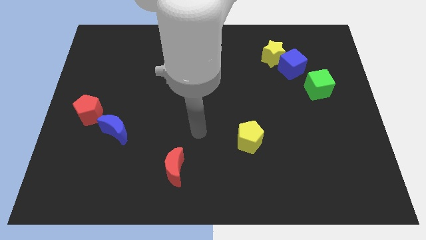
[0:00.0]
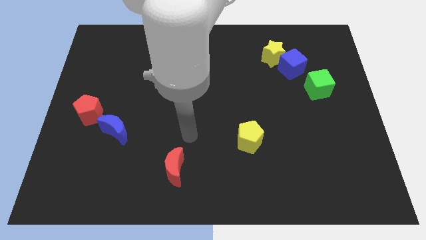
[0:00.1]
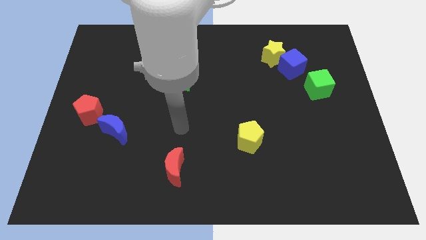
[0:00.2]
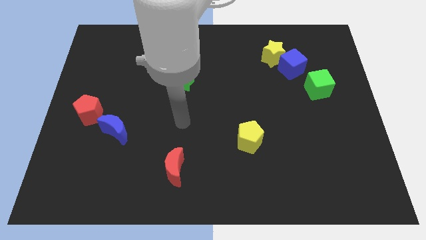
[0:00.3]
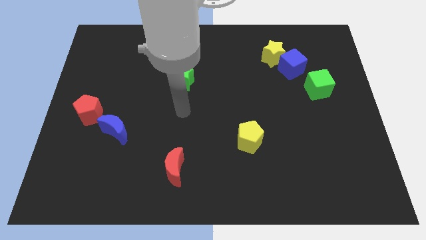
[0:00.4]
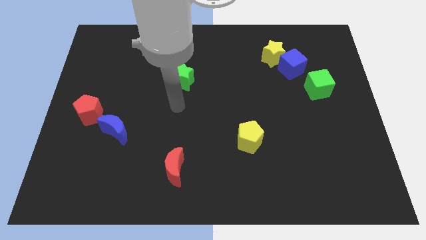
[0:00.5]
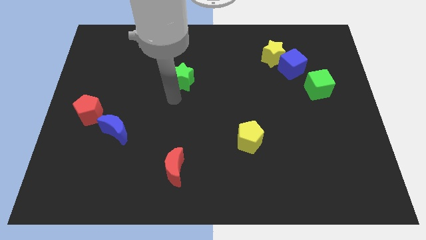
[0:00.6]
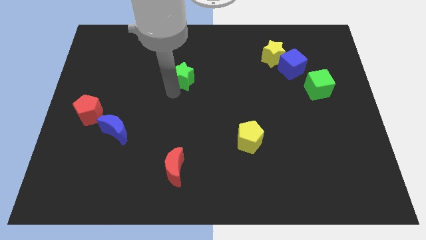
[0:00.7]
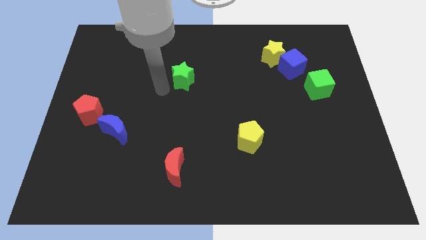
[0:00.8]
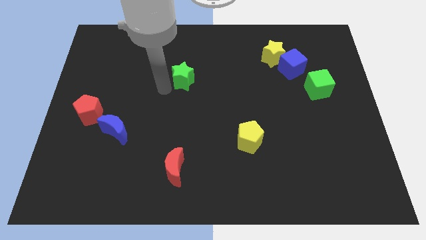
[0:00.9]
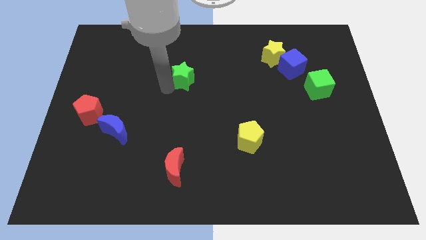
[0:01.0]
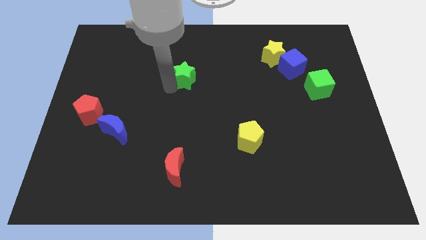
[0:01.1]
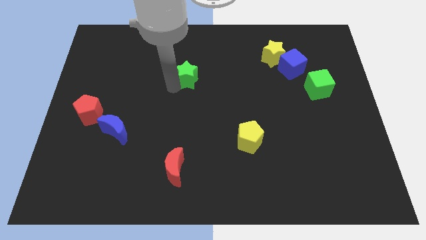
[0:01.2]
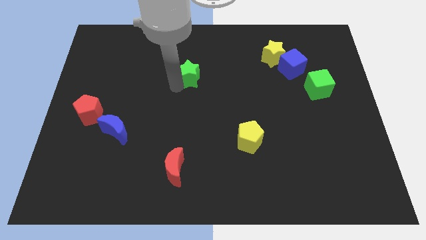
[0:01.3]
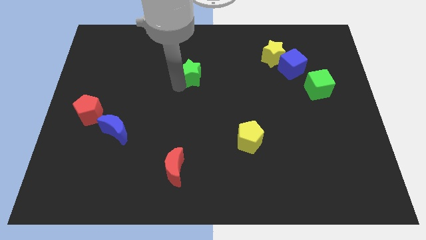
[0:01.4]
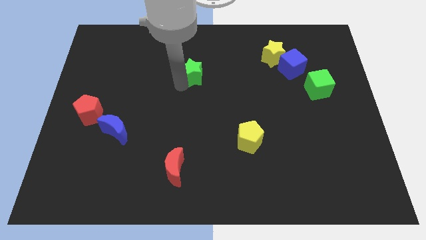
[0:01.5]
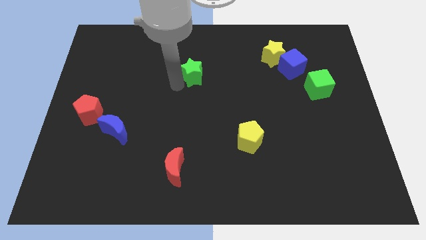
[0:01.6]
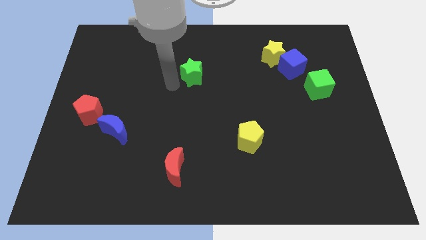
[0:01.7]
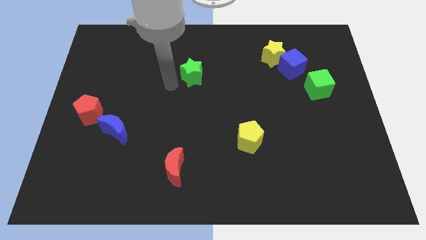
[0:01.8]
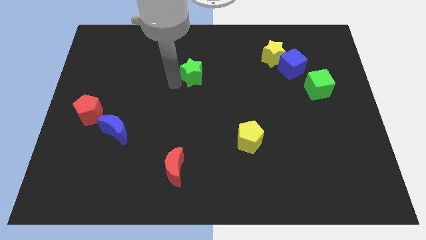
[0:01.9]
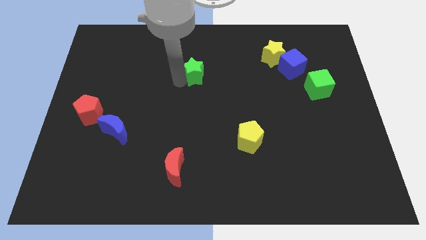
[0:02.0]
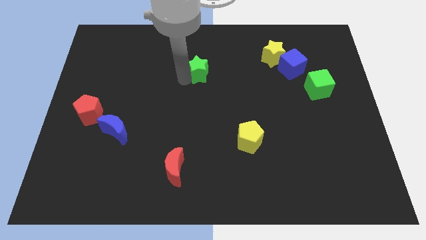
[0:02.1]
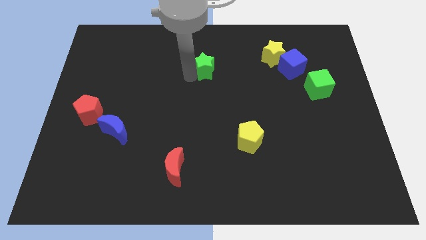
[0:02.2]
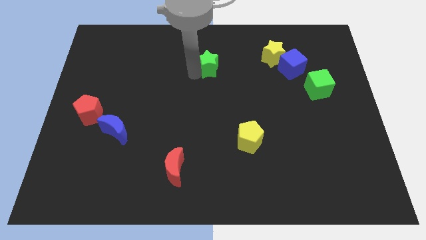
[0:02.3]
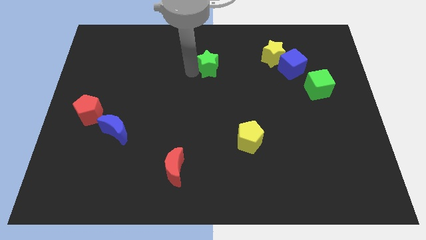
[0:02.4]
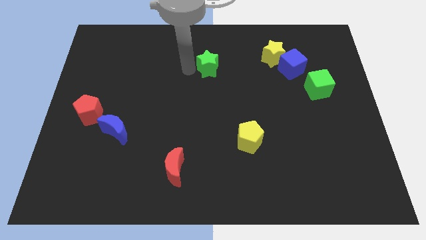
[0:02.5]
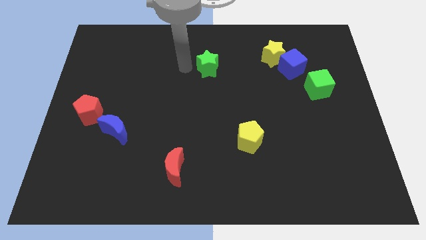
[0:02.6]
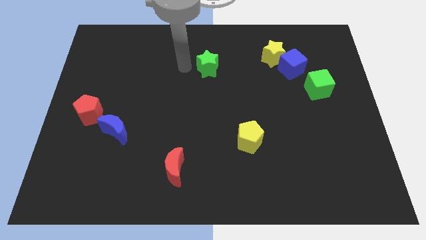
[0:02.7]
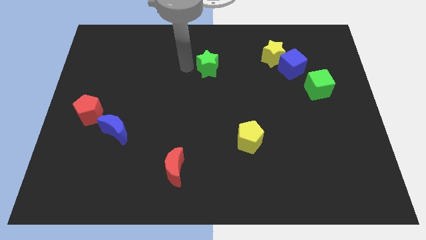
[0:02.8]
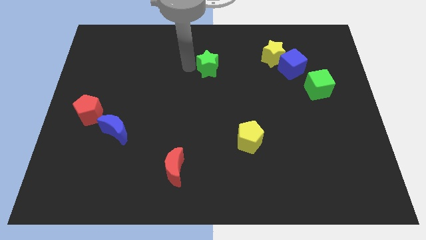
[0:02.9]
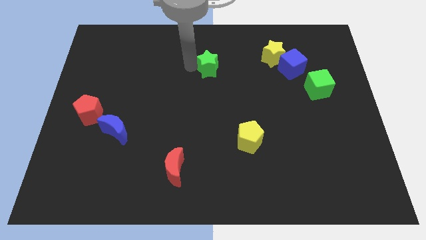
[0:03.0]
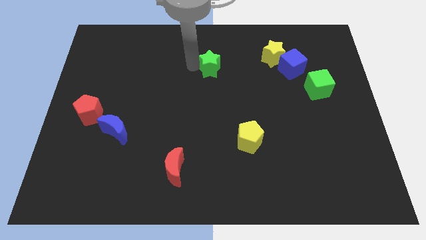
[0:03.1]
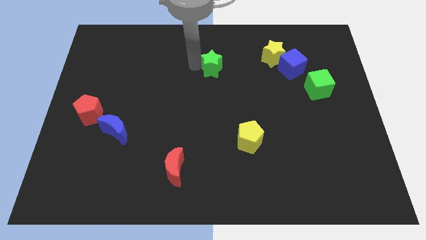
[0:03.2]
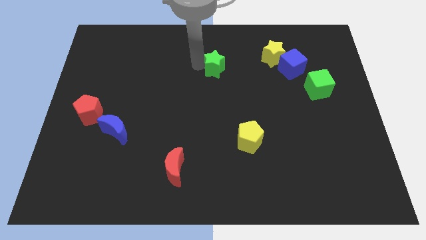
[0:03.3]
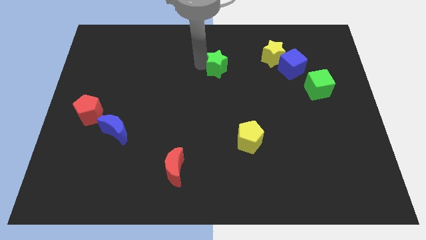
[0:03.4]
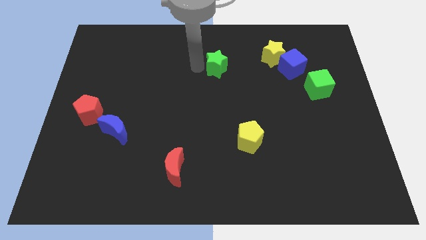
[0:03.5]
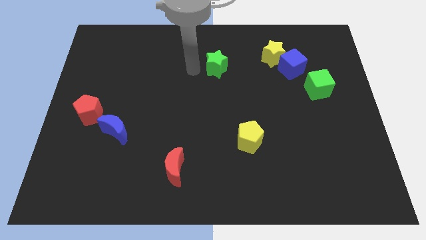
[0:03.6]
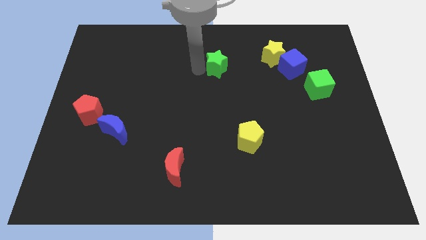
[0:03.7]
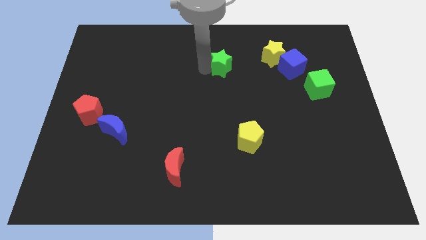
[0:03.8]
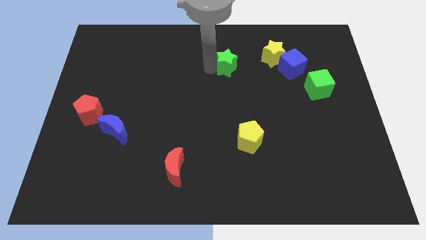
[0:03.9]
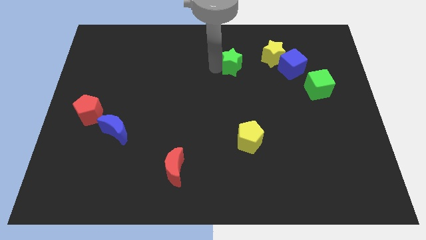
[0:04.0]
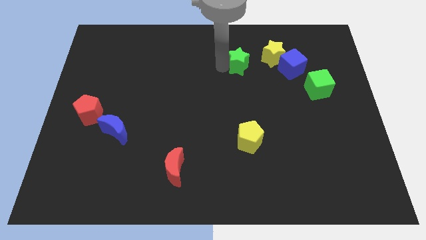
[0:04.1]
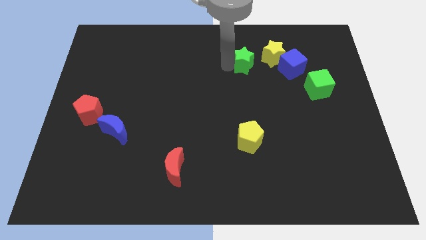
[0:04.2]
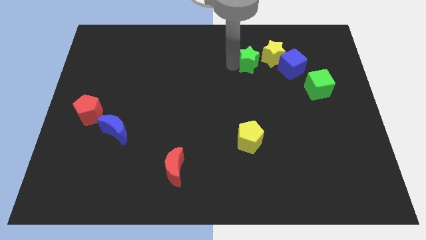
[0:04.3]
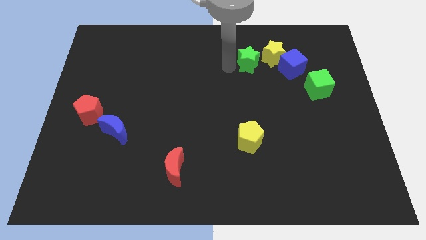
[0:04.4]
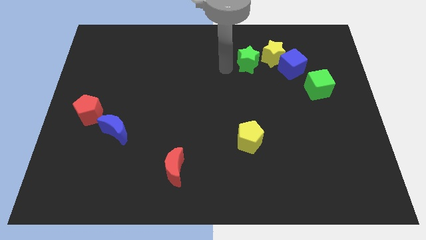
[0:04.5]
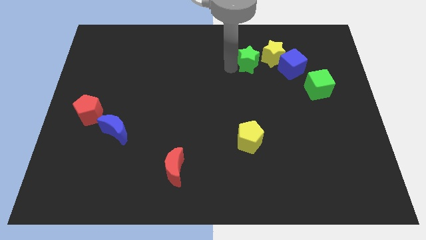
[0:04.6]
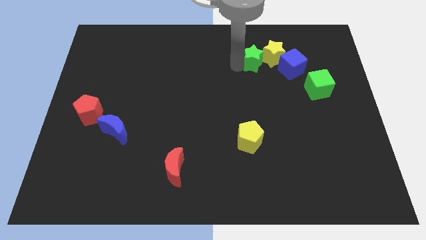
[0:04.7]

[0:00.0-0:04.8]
push the green star close to the yellow star

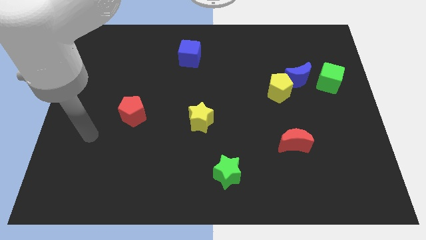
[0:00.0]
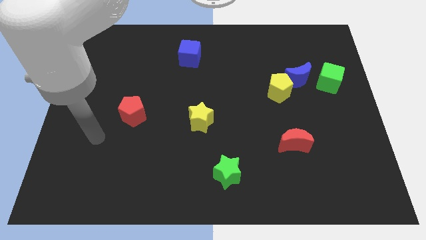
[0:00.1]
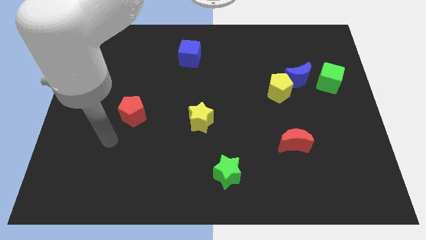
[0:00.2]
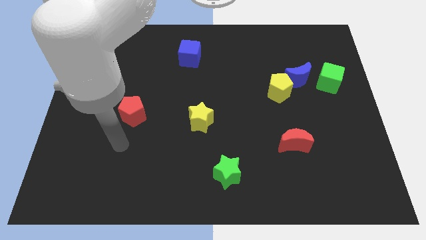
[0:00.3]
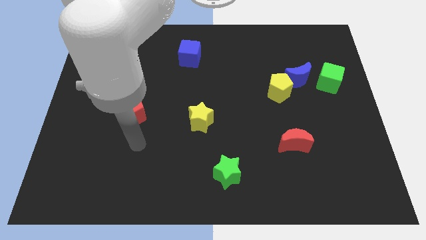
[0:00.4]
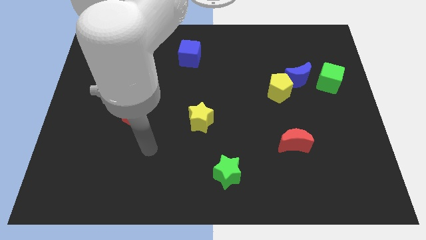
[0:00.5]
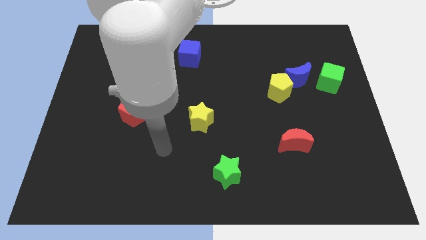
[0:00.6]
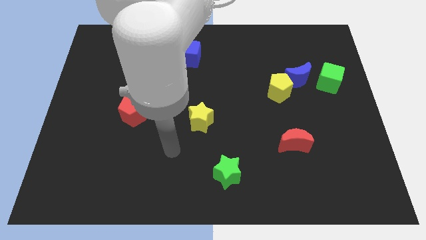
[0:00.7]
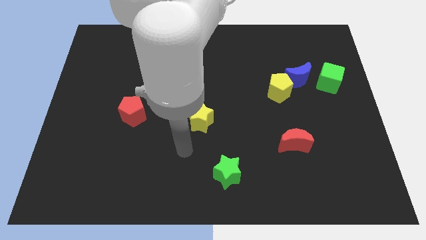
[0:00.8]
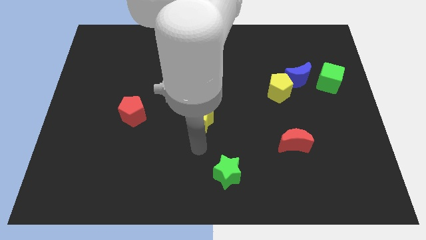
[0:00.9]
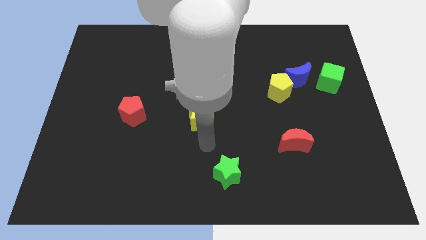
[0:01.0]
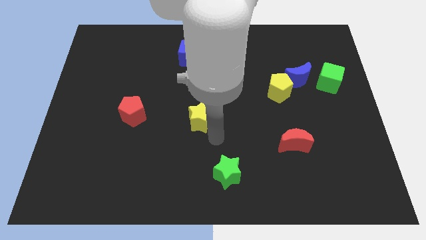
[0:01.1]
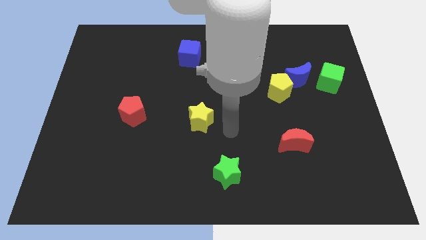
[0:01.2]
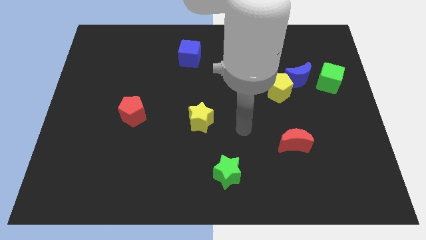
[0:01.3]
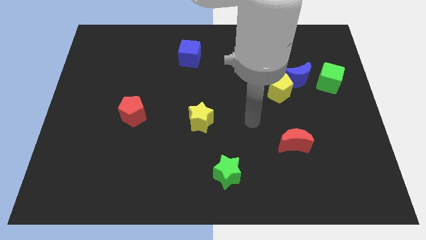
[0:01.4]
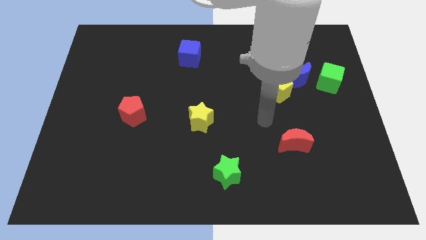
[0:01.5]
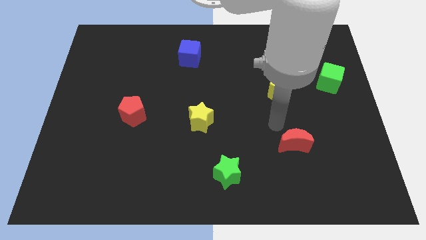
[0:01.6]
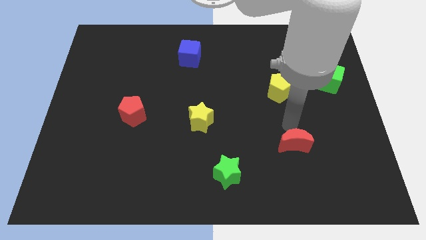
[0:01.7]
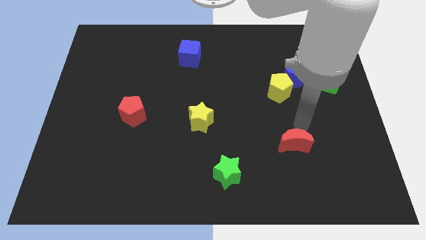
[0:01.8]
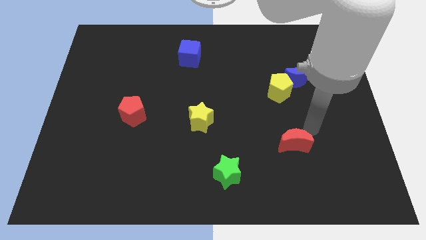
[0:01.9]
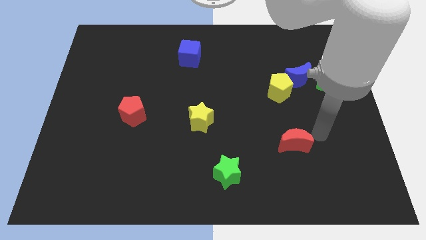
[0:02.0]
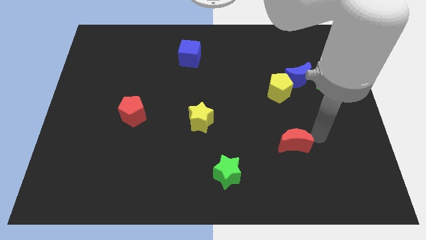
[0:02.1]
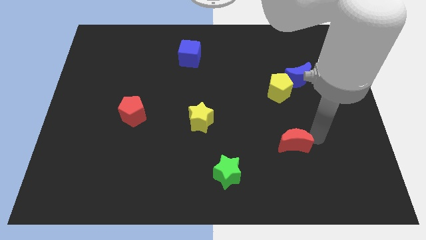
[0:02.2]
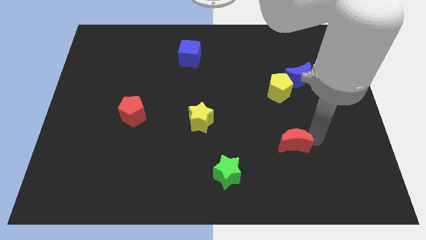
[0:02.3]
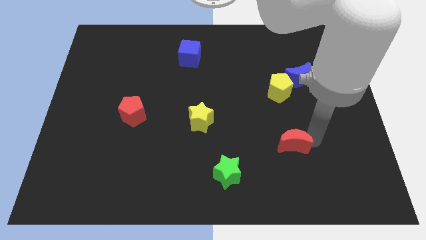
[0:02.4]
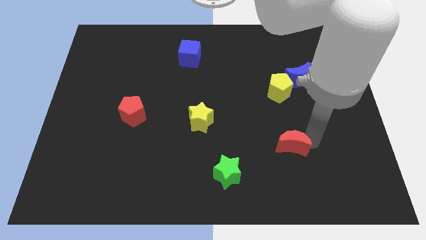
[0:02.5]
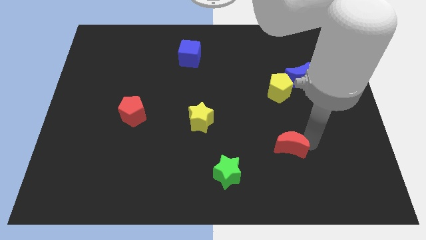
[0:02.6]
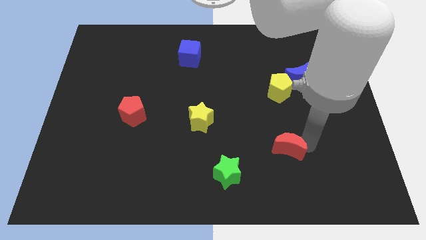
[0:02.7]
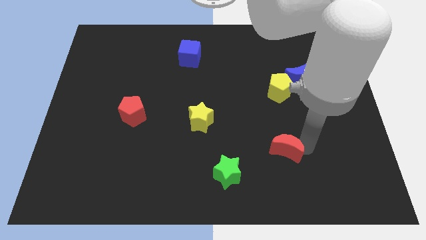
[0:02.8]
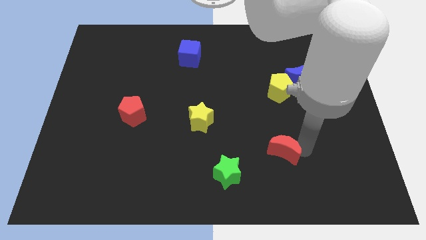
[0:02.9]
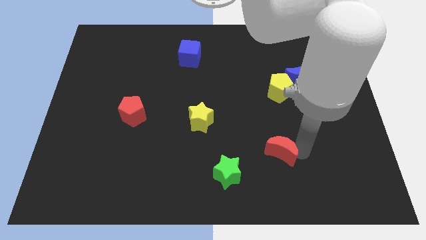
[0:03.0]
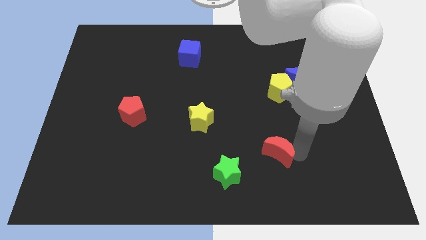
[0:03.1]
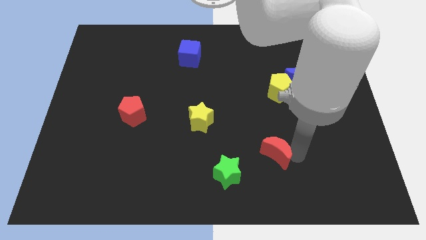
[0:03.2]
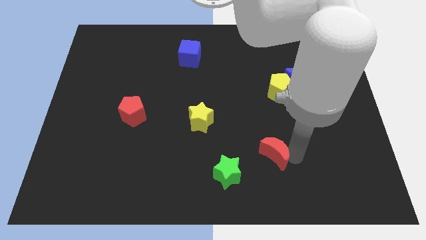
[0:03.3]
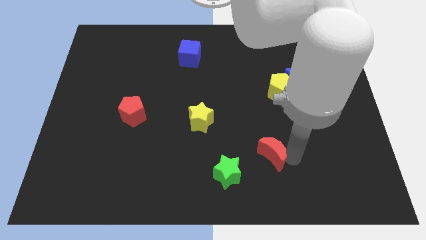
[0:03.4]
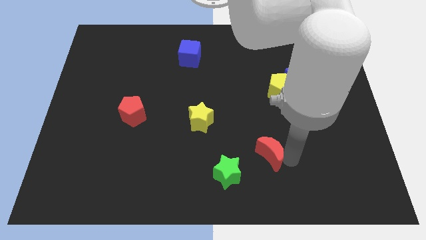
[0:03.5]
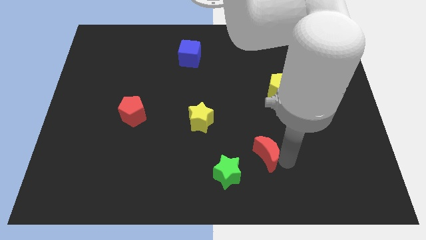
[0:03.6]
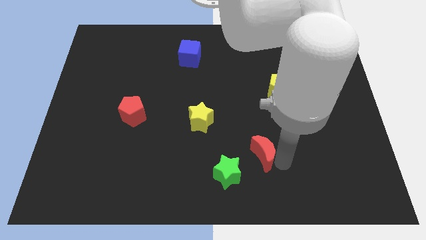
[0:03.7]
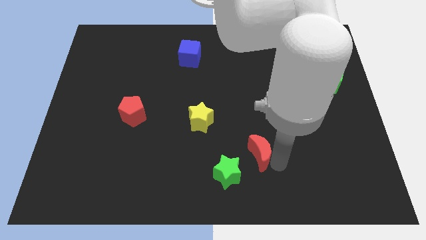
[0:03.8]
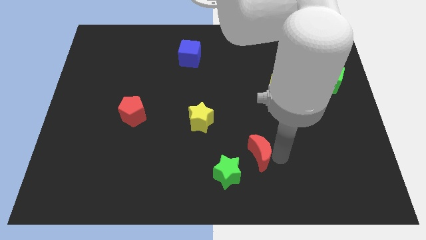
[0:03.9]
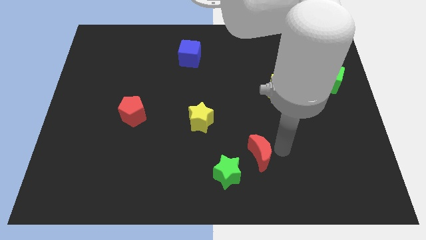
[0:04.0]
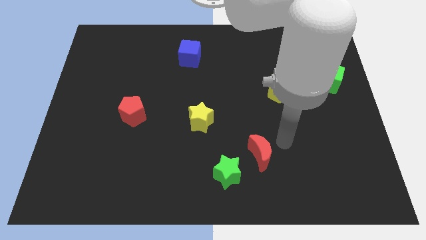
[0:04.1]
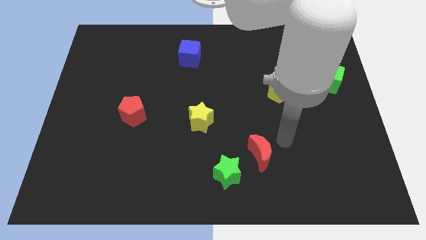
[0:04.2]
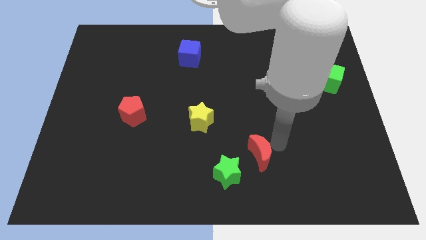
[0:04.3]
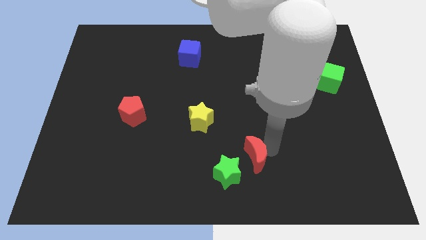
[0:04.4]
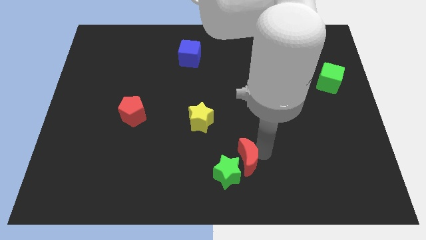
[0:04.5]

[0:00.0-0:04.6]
slide the red moon next to the green star
